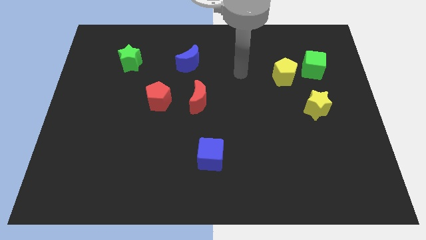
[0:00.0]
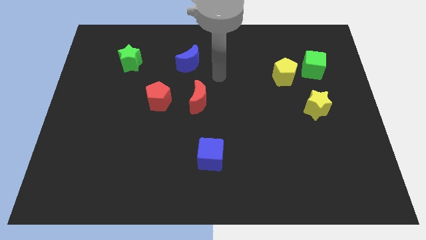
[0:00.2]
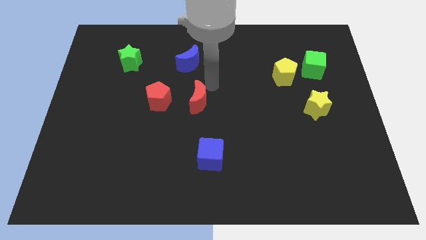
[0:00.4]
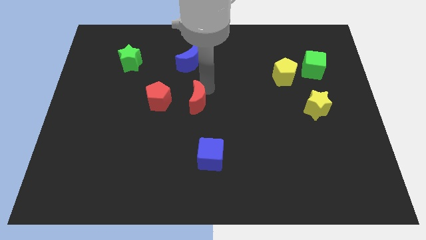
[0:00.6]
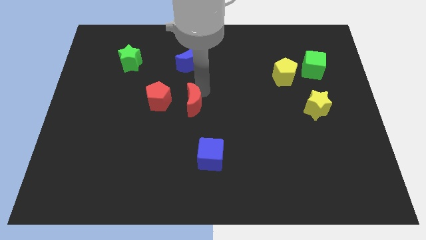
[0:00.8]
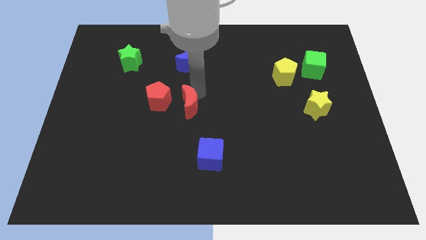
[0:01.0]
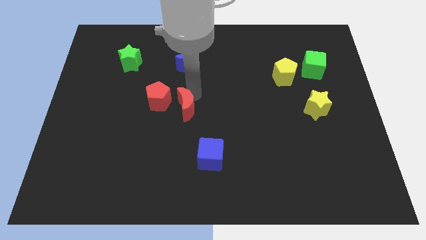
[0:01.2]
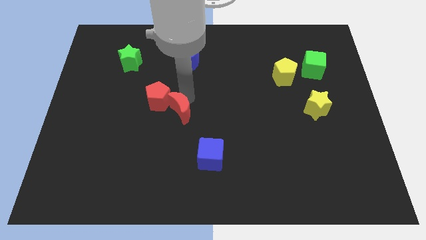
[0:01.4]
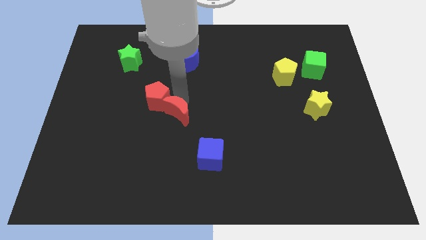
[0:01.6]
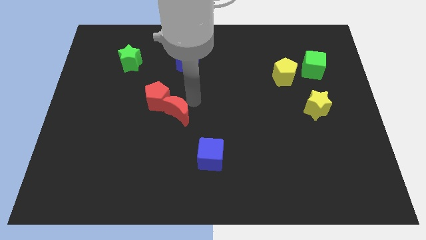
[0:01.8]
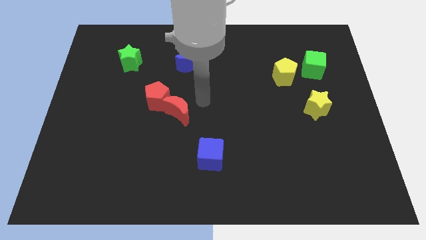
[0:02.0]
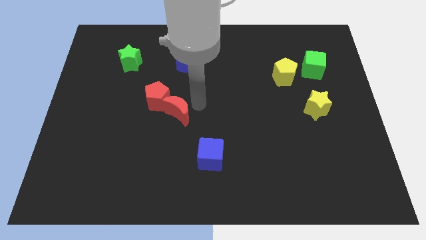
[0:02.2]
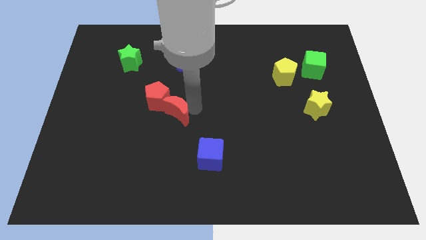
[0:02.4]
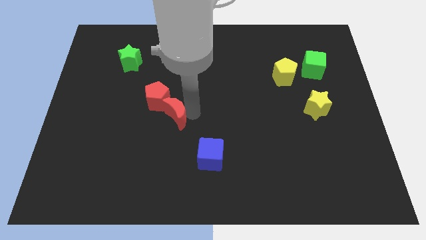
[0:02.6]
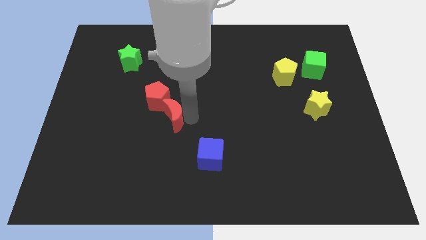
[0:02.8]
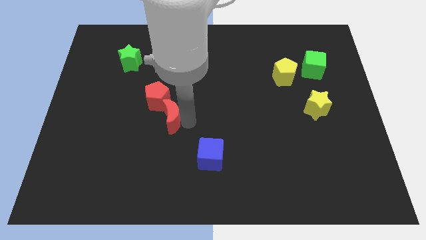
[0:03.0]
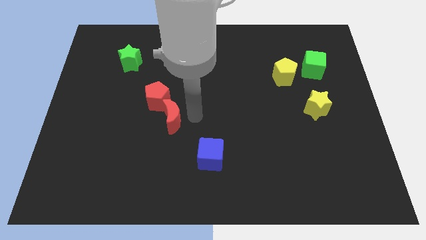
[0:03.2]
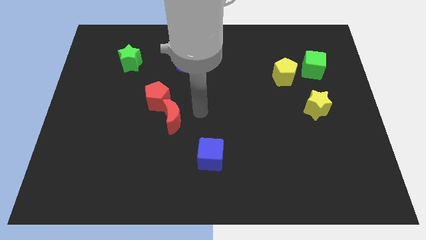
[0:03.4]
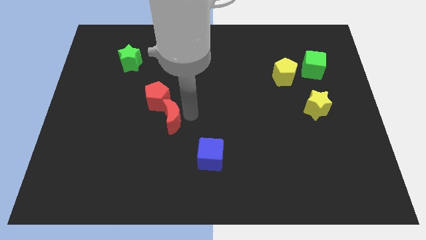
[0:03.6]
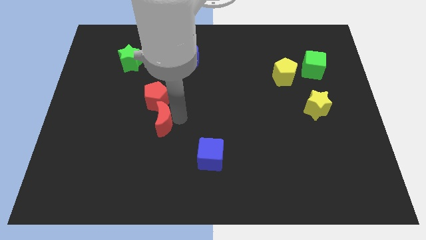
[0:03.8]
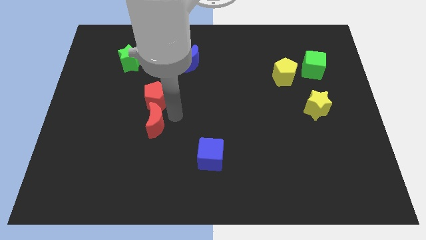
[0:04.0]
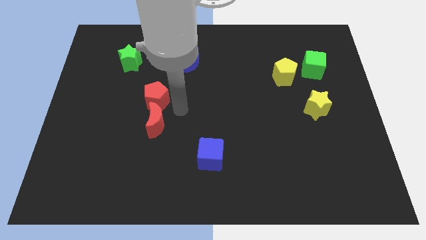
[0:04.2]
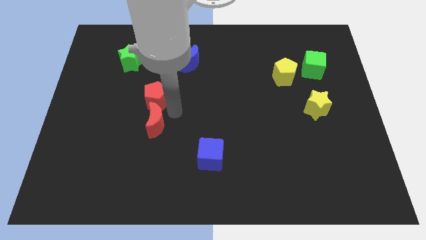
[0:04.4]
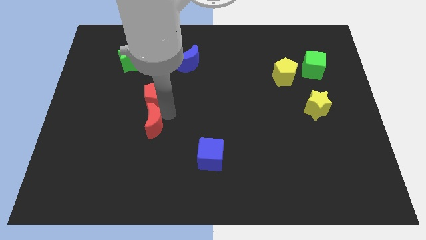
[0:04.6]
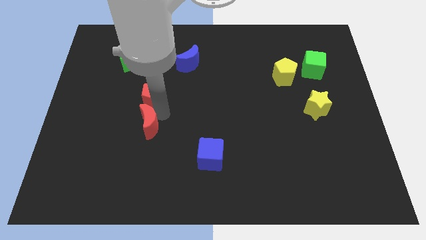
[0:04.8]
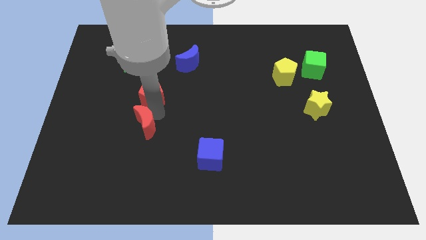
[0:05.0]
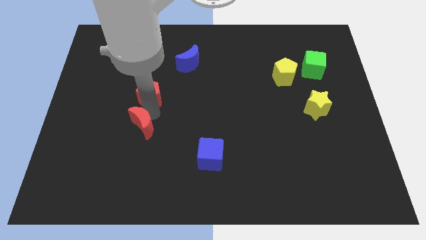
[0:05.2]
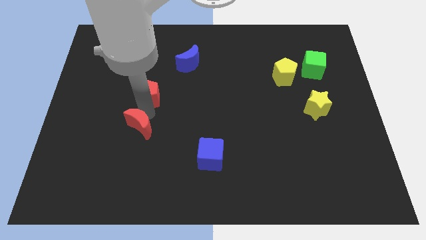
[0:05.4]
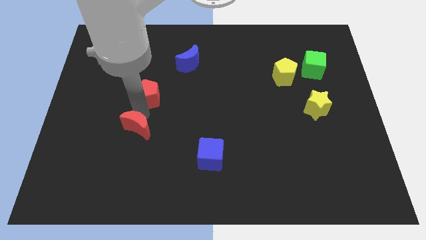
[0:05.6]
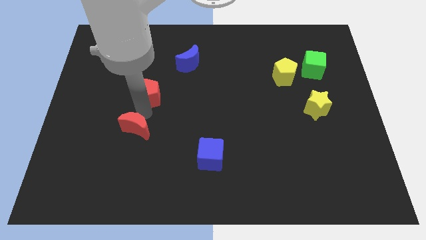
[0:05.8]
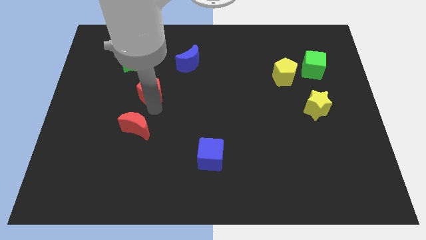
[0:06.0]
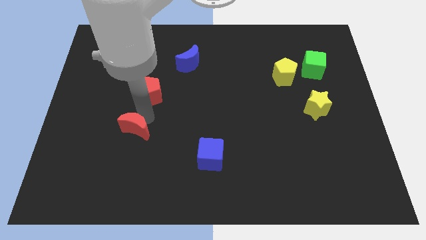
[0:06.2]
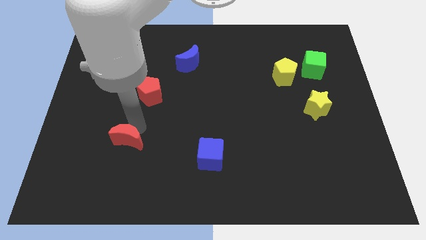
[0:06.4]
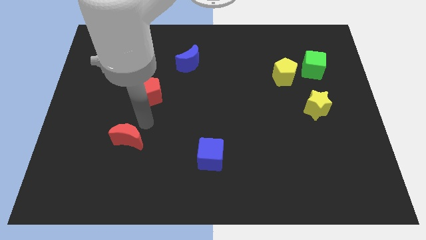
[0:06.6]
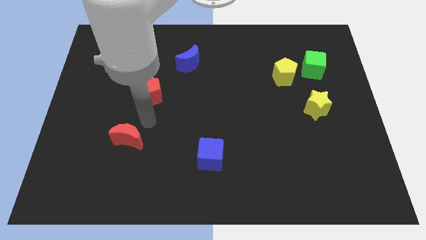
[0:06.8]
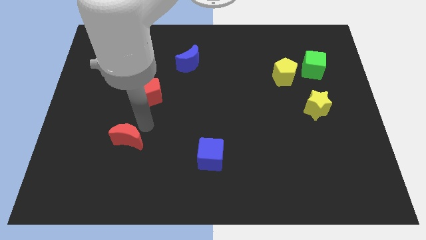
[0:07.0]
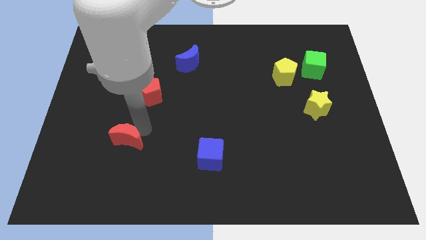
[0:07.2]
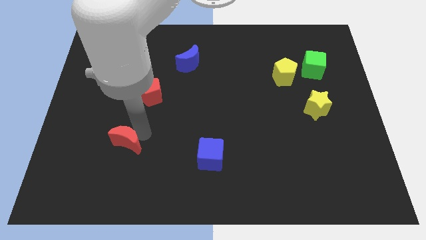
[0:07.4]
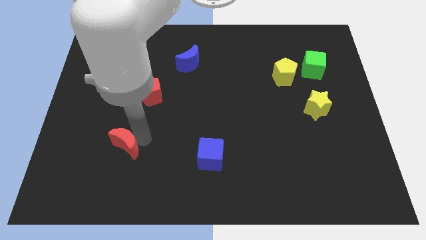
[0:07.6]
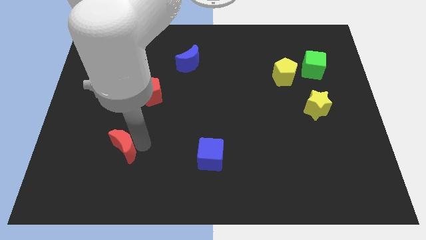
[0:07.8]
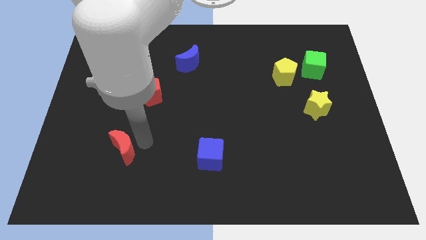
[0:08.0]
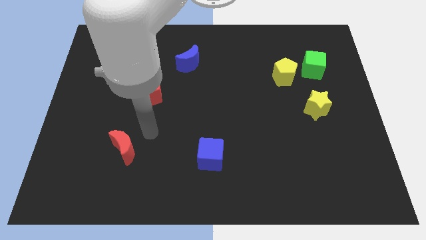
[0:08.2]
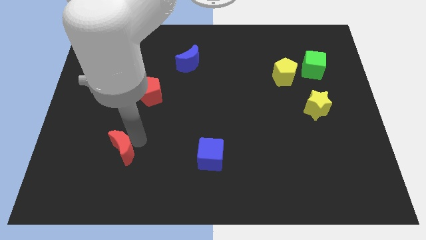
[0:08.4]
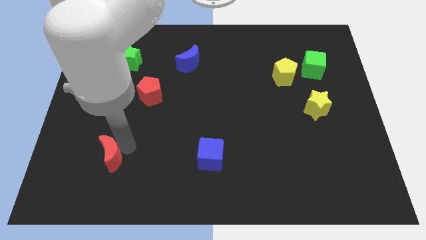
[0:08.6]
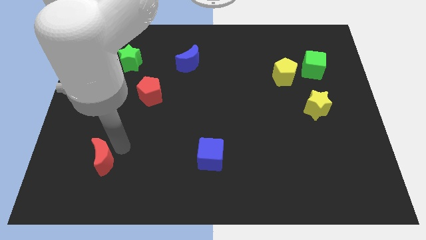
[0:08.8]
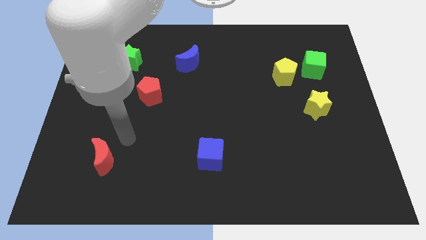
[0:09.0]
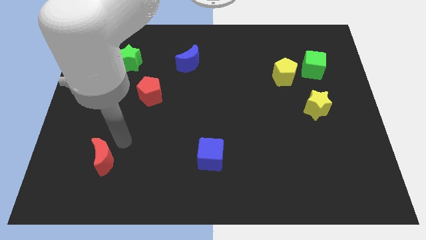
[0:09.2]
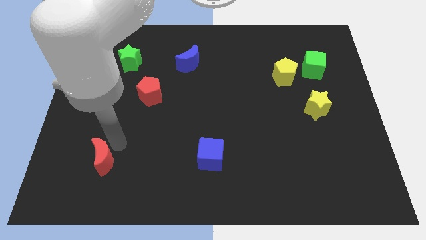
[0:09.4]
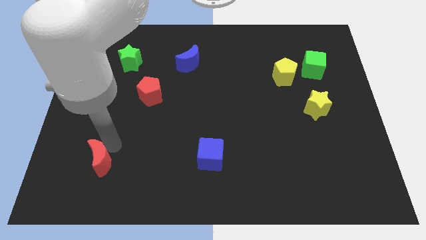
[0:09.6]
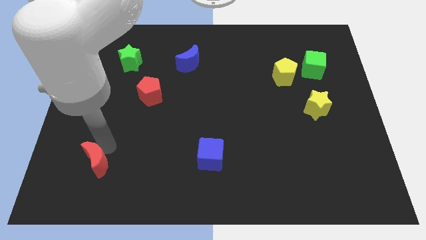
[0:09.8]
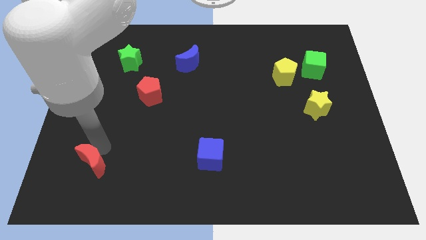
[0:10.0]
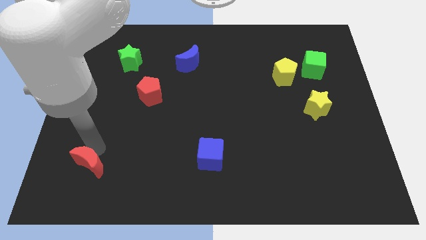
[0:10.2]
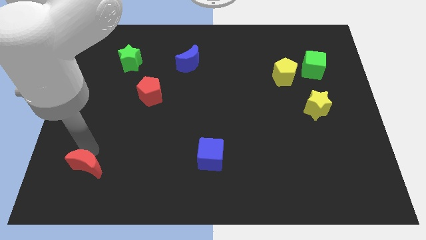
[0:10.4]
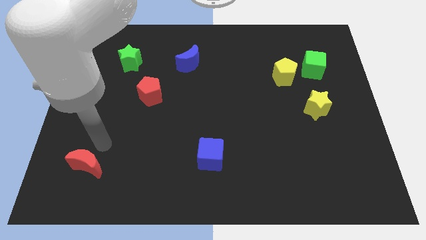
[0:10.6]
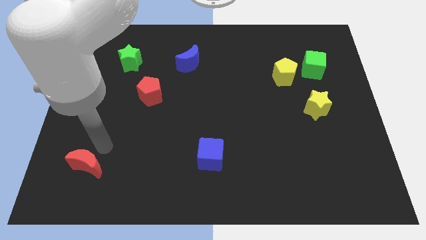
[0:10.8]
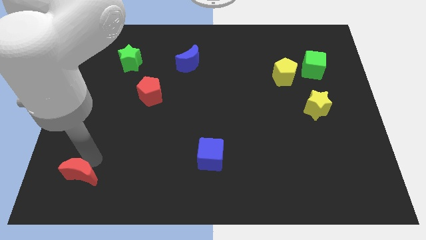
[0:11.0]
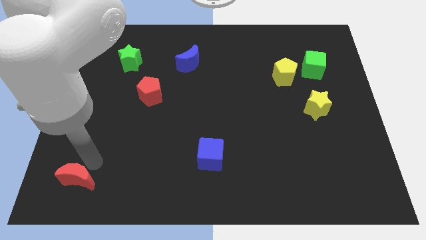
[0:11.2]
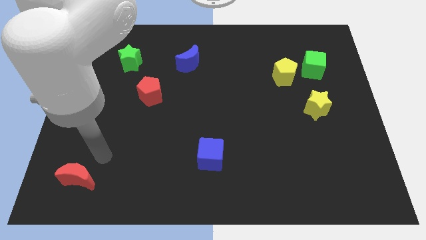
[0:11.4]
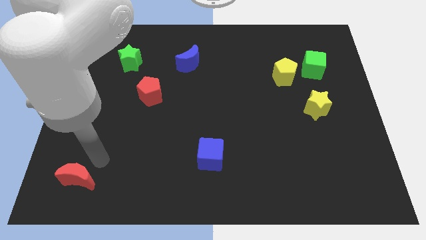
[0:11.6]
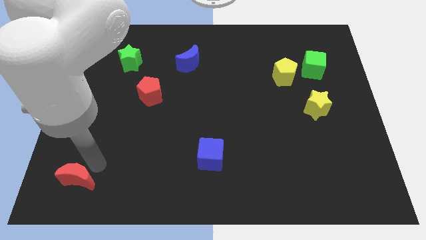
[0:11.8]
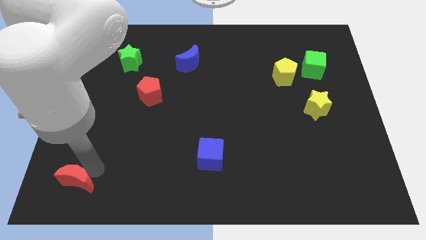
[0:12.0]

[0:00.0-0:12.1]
move the red moon to the bottom left corner
